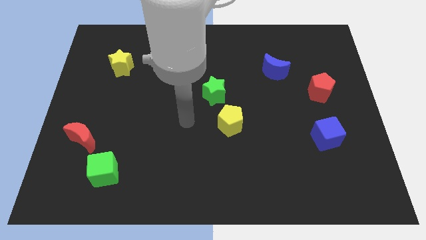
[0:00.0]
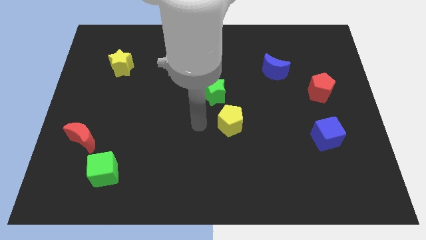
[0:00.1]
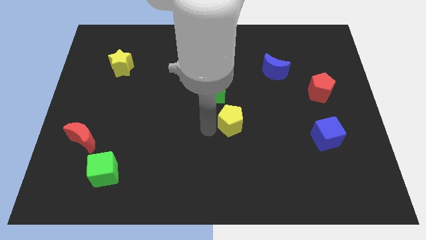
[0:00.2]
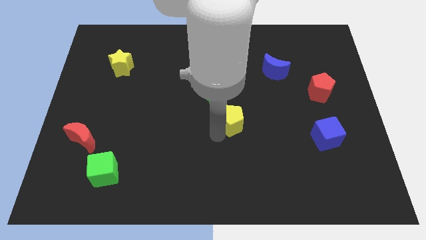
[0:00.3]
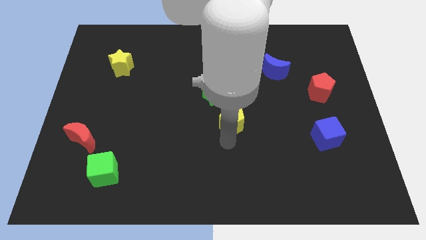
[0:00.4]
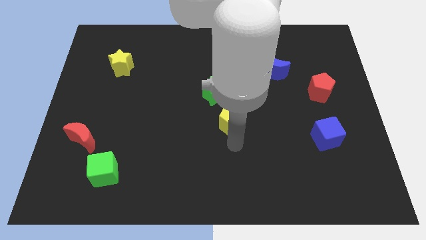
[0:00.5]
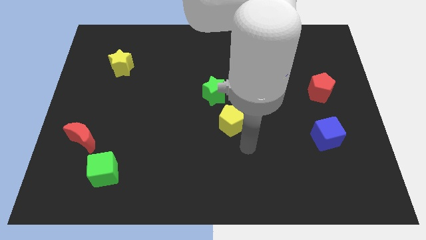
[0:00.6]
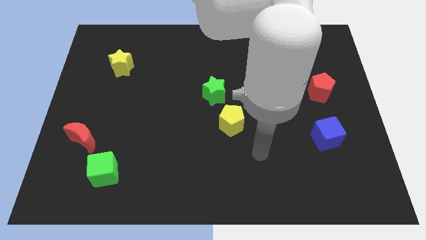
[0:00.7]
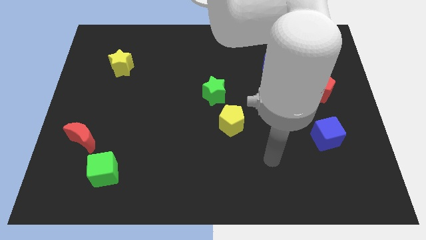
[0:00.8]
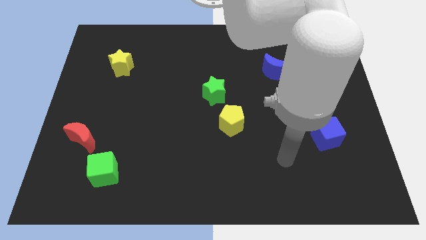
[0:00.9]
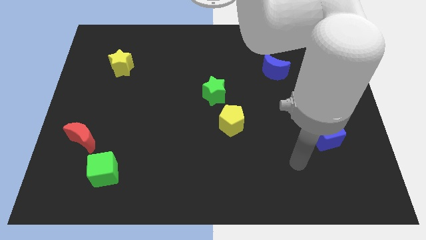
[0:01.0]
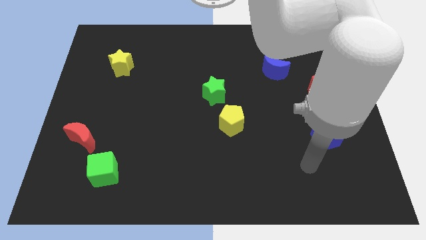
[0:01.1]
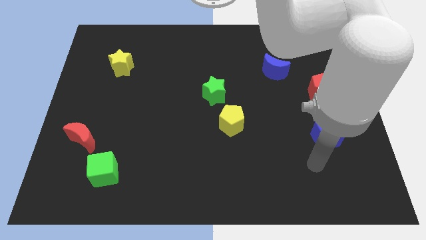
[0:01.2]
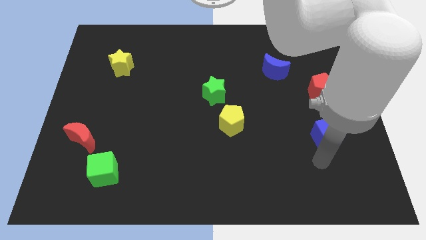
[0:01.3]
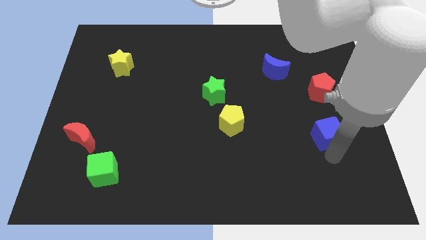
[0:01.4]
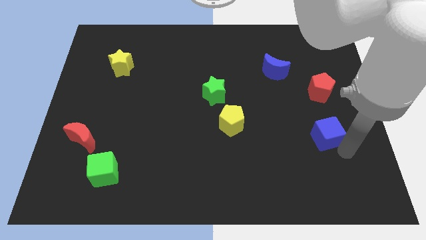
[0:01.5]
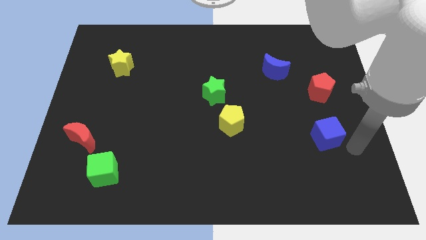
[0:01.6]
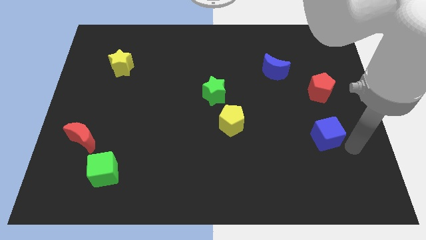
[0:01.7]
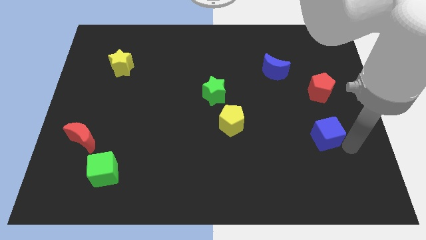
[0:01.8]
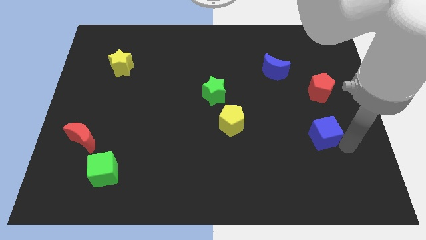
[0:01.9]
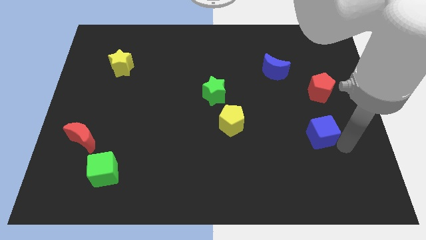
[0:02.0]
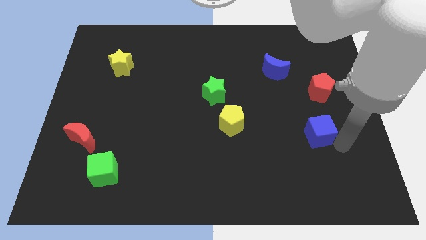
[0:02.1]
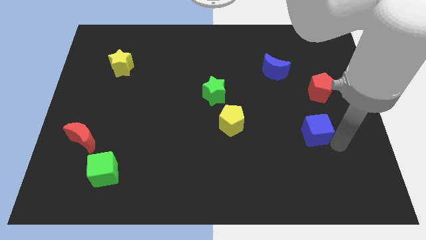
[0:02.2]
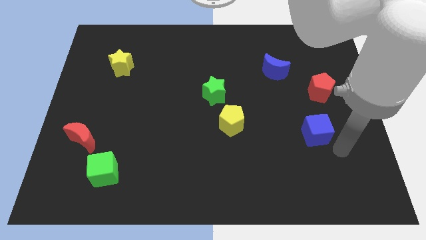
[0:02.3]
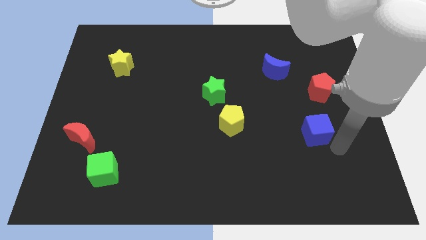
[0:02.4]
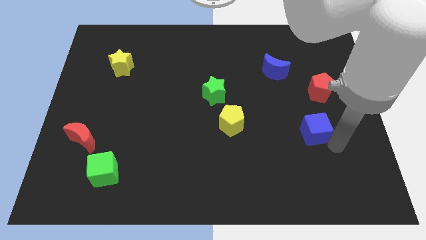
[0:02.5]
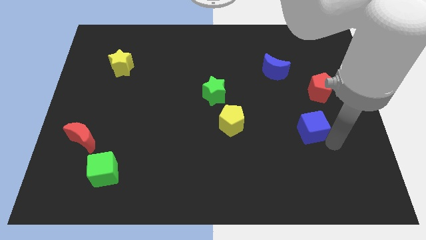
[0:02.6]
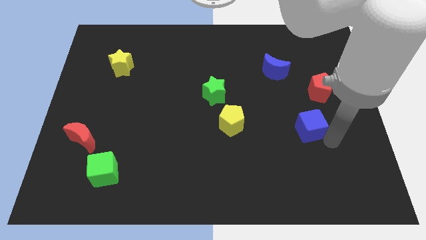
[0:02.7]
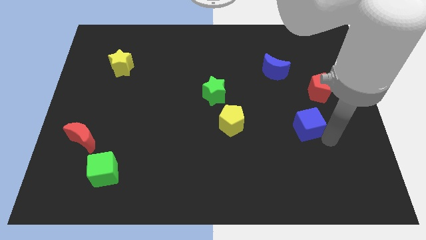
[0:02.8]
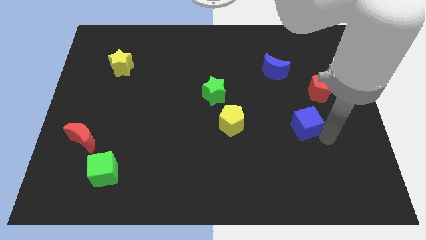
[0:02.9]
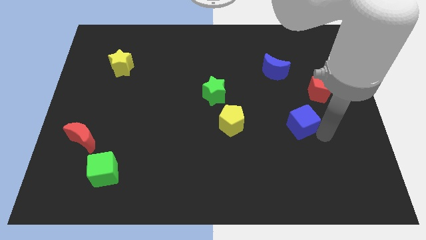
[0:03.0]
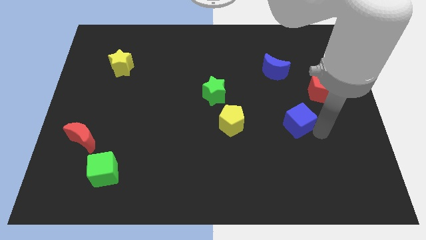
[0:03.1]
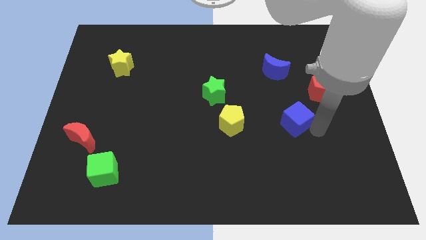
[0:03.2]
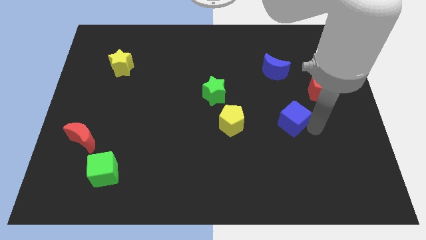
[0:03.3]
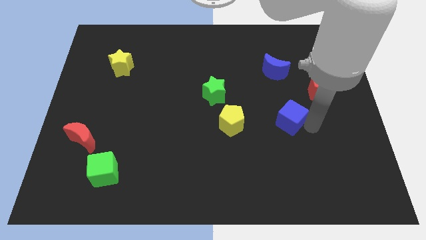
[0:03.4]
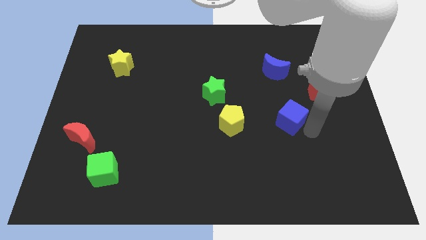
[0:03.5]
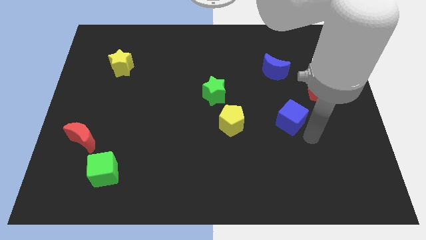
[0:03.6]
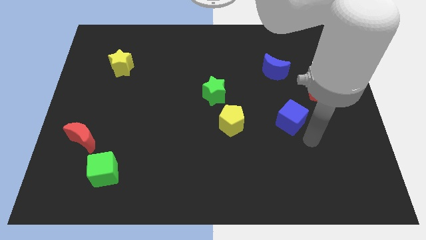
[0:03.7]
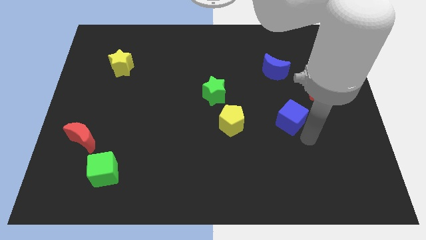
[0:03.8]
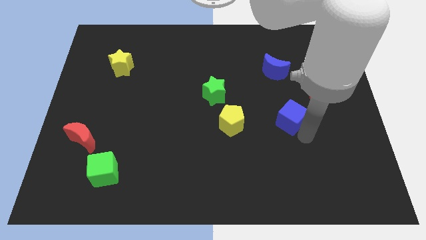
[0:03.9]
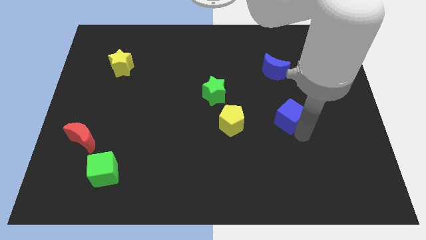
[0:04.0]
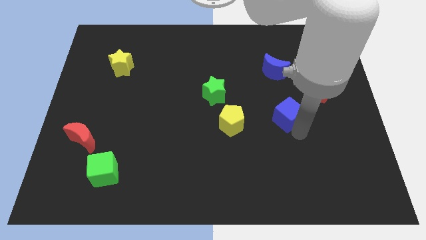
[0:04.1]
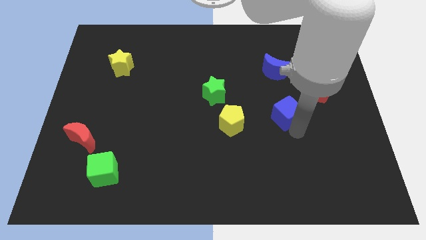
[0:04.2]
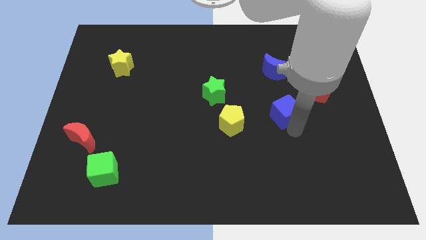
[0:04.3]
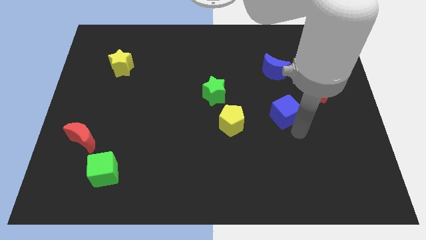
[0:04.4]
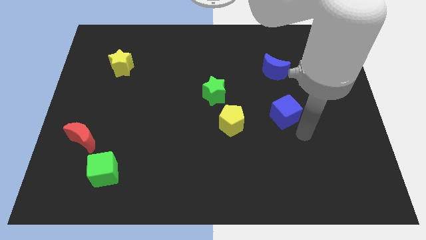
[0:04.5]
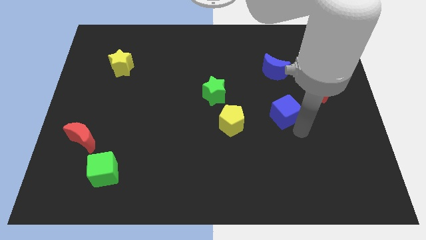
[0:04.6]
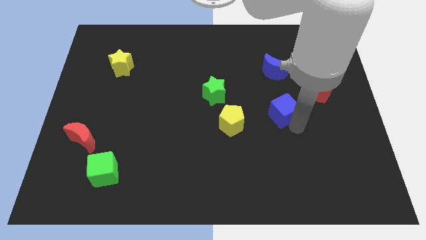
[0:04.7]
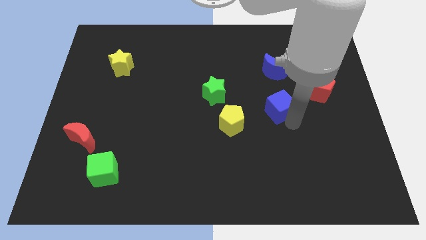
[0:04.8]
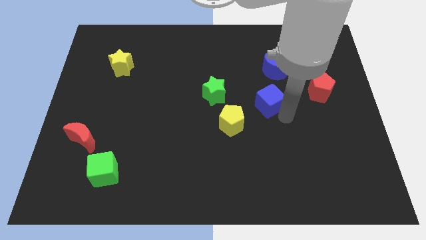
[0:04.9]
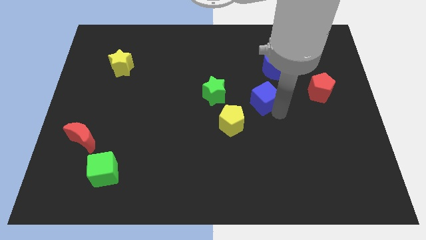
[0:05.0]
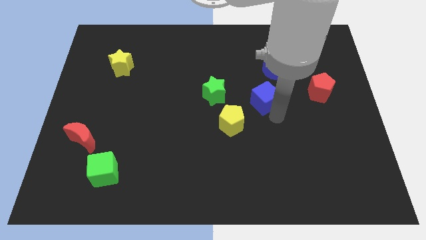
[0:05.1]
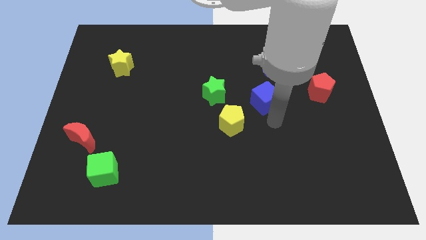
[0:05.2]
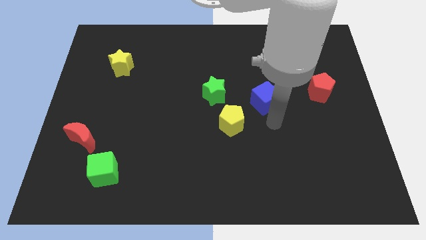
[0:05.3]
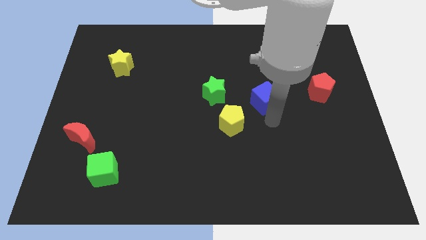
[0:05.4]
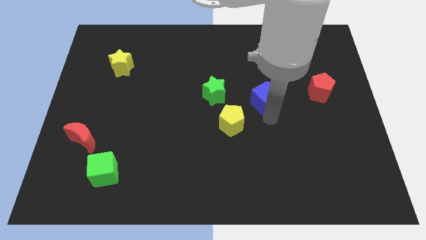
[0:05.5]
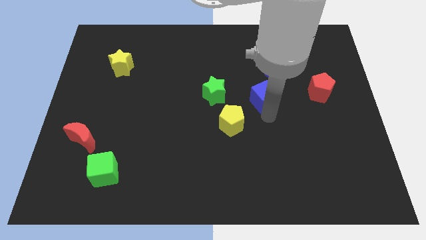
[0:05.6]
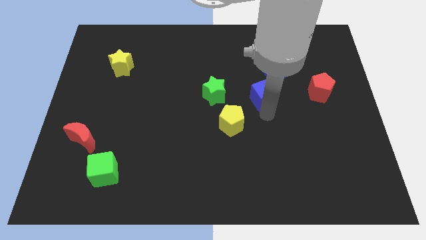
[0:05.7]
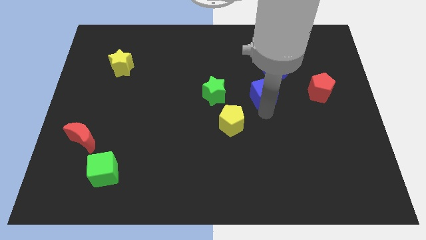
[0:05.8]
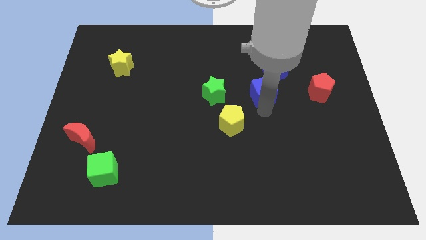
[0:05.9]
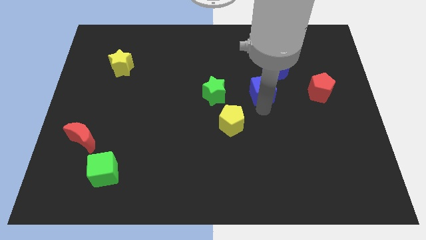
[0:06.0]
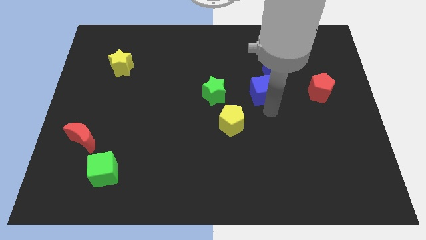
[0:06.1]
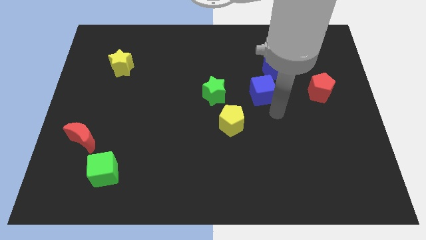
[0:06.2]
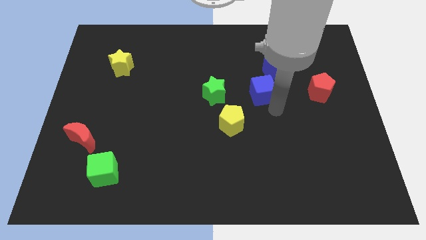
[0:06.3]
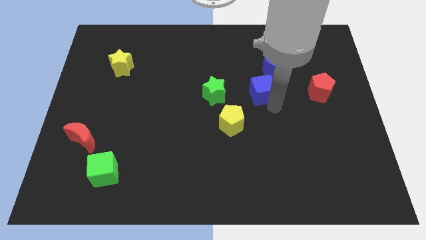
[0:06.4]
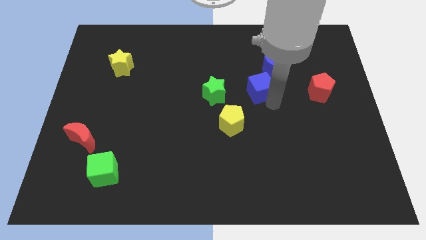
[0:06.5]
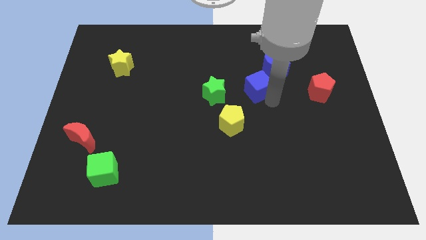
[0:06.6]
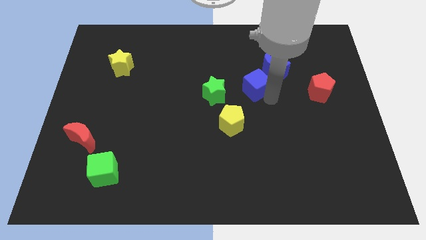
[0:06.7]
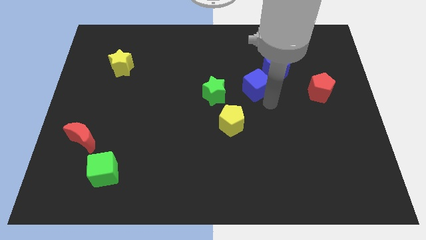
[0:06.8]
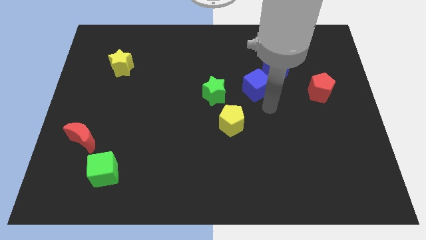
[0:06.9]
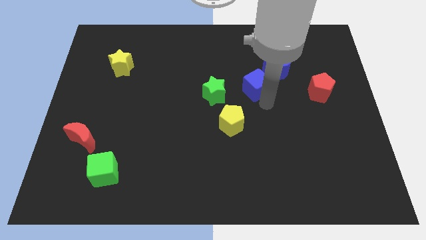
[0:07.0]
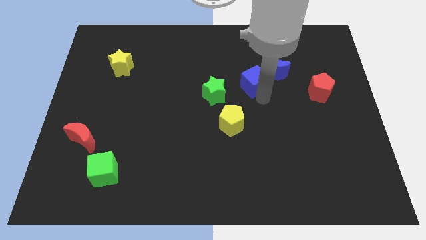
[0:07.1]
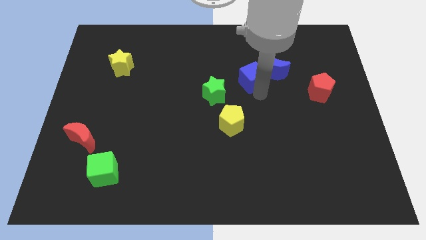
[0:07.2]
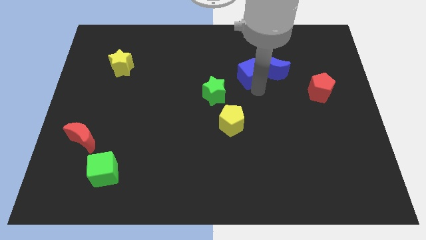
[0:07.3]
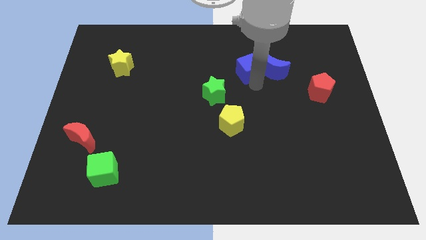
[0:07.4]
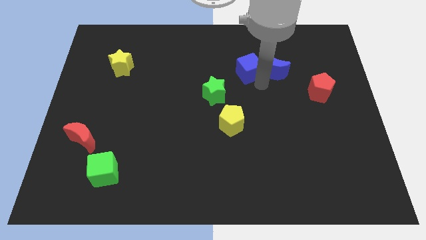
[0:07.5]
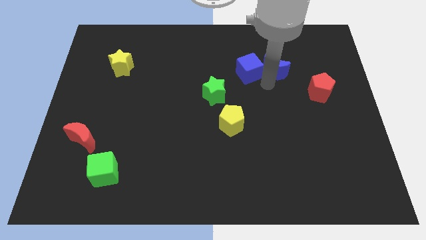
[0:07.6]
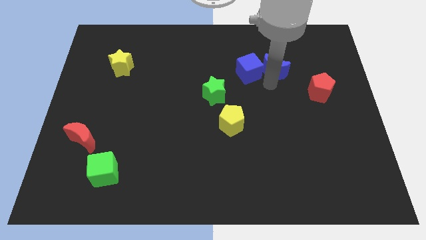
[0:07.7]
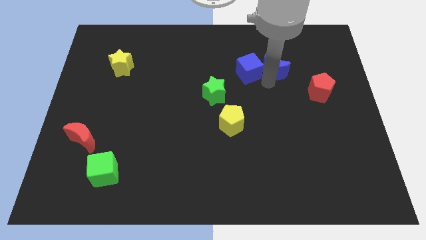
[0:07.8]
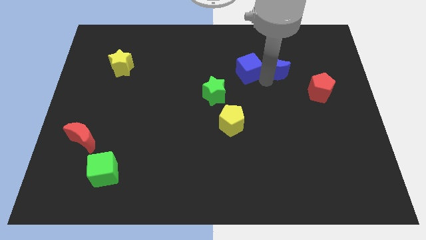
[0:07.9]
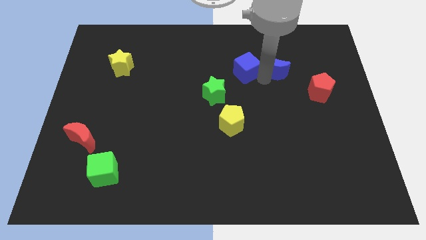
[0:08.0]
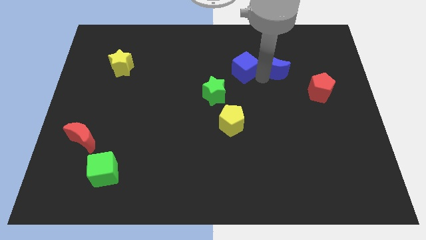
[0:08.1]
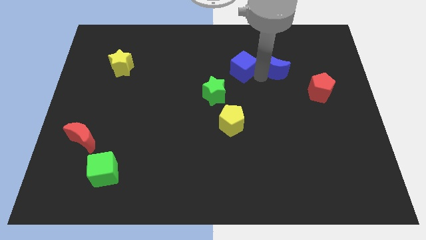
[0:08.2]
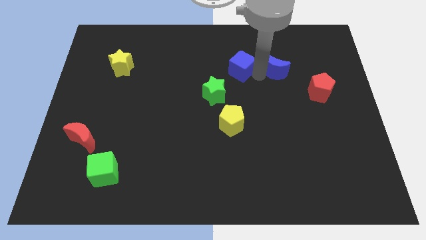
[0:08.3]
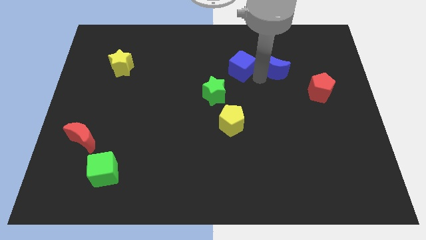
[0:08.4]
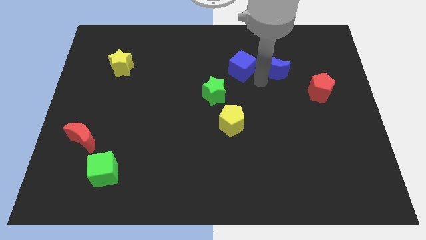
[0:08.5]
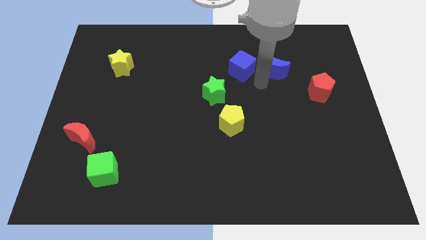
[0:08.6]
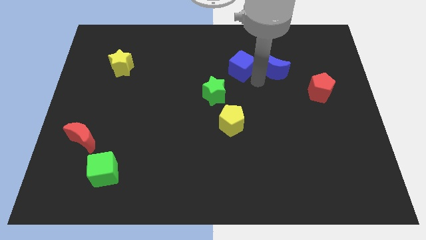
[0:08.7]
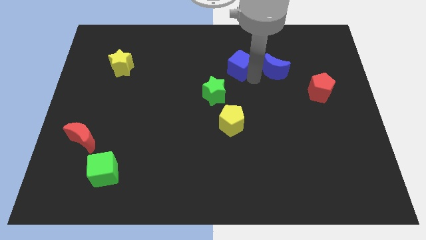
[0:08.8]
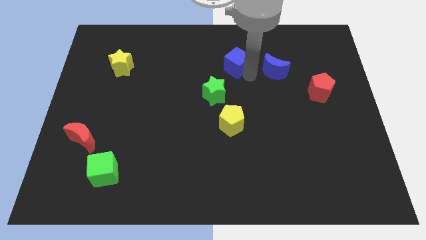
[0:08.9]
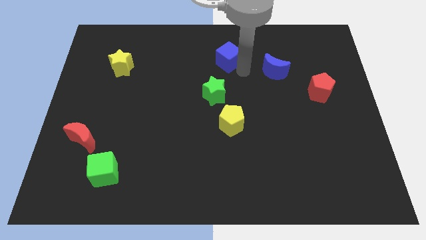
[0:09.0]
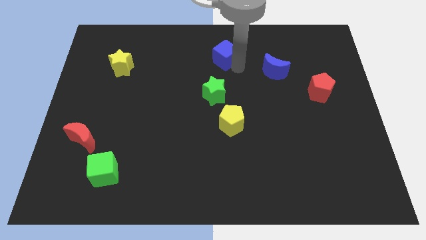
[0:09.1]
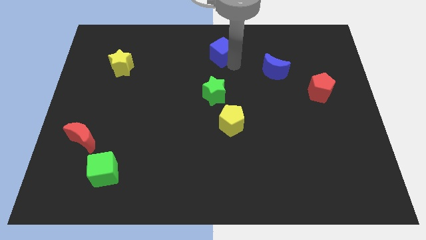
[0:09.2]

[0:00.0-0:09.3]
slide the blue cube to the towards your base
